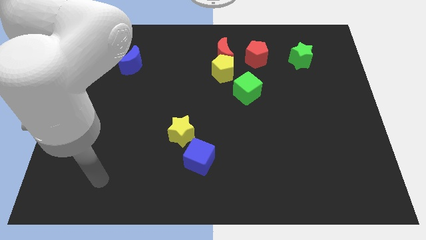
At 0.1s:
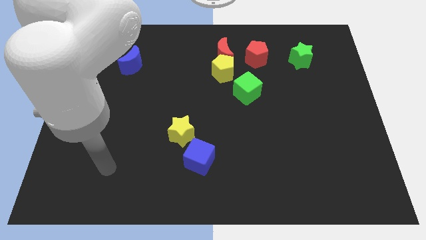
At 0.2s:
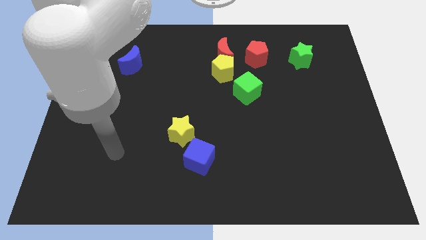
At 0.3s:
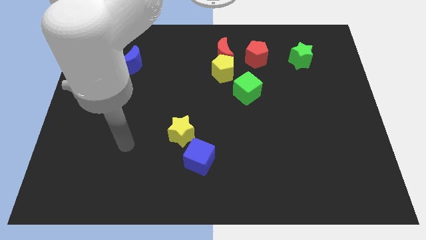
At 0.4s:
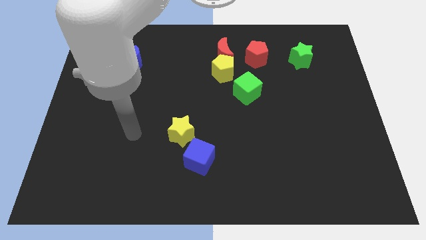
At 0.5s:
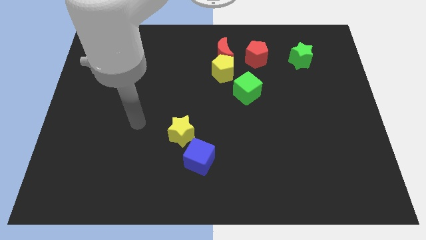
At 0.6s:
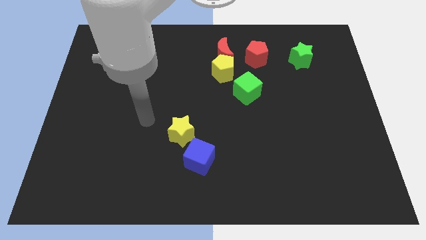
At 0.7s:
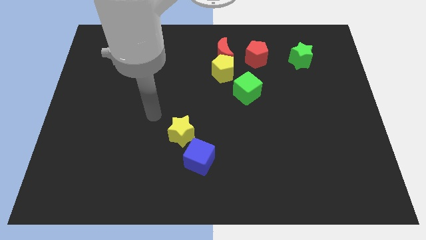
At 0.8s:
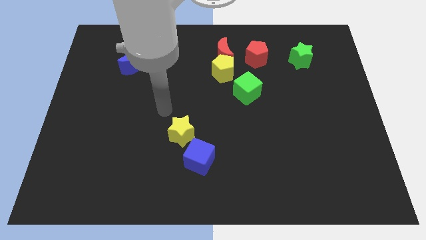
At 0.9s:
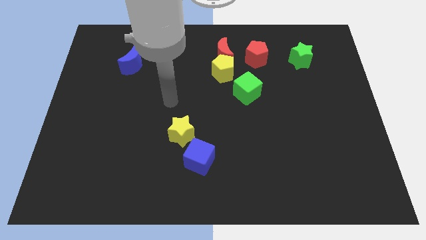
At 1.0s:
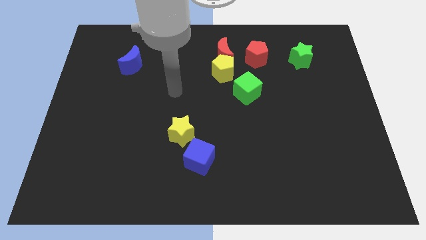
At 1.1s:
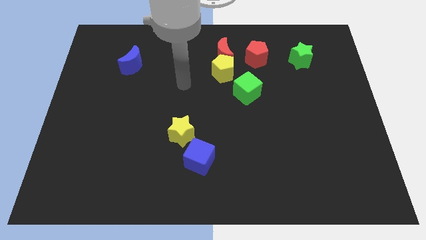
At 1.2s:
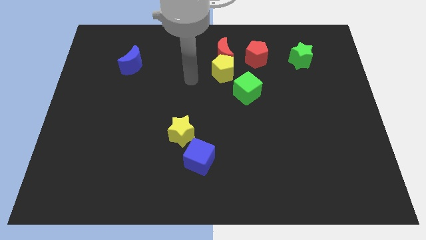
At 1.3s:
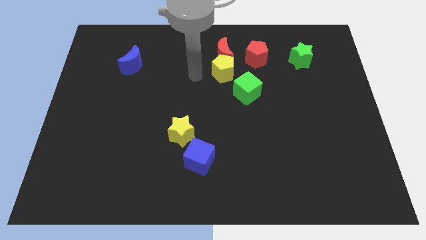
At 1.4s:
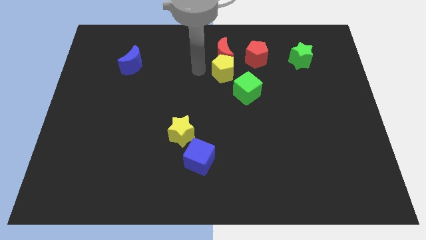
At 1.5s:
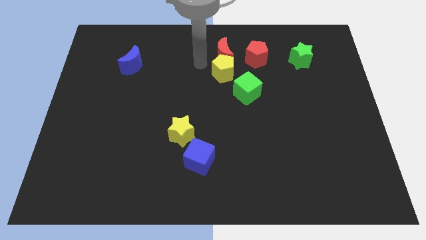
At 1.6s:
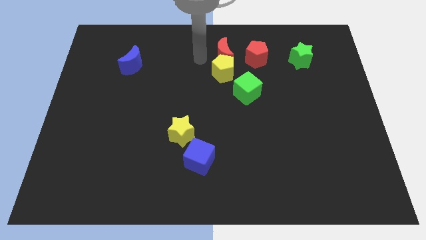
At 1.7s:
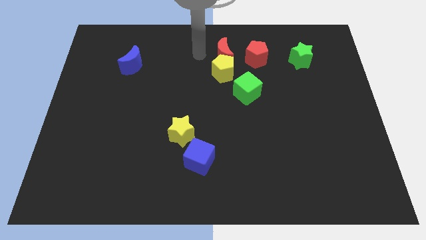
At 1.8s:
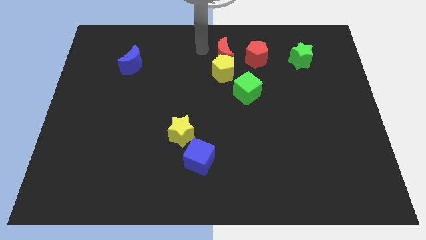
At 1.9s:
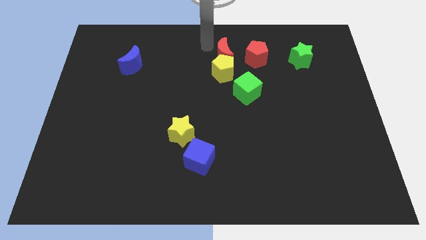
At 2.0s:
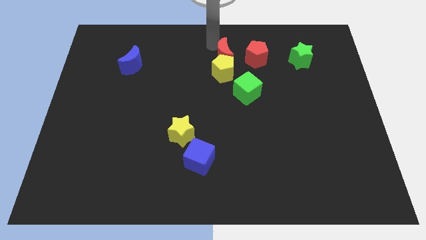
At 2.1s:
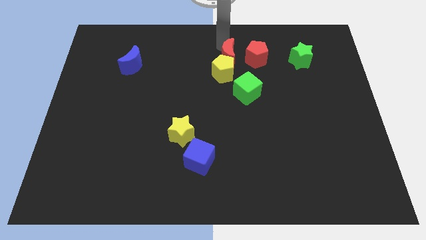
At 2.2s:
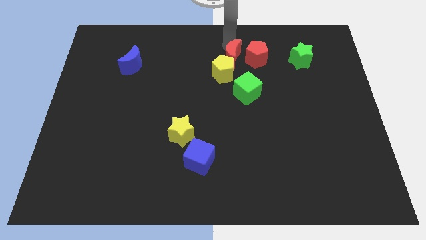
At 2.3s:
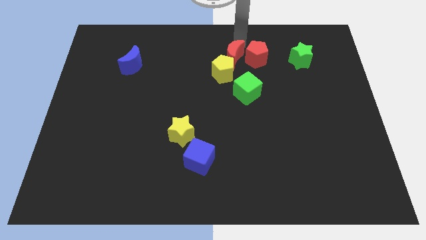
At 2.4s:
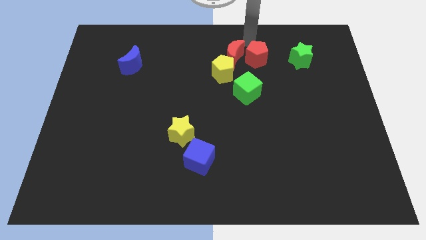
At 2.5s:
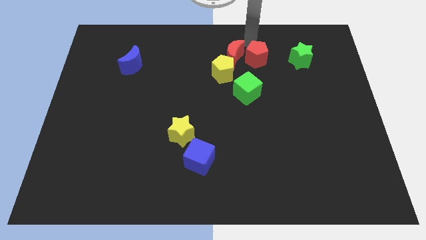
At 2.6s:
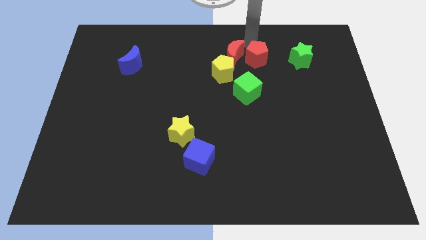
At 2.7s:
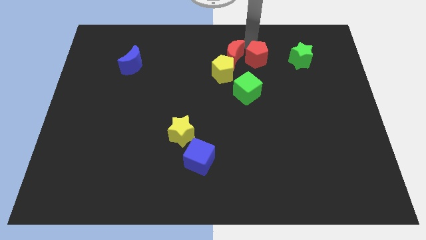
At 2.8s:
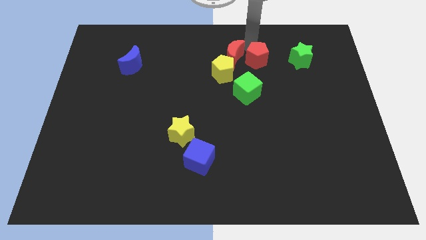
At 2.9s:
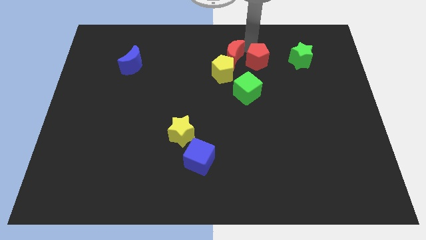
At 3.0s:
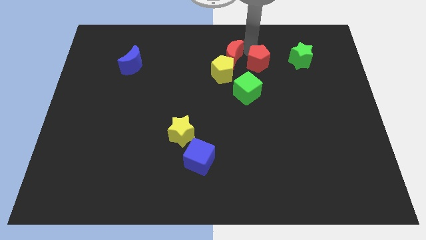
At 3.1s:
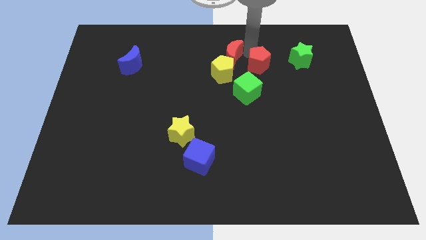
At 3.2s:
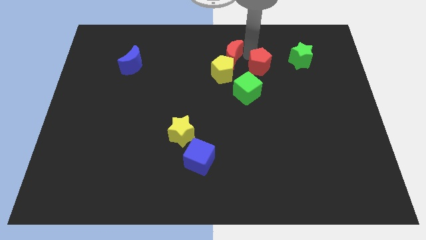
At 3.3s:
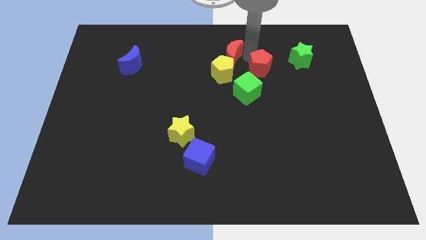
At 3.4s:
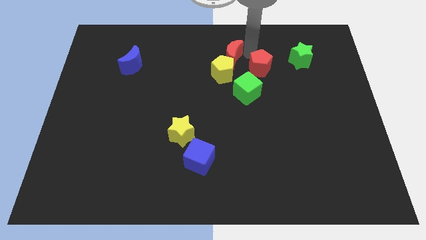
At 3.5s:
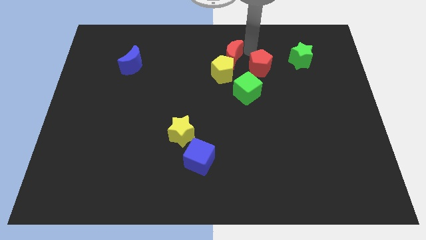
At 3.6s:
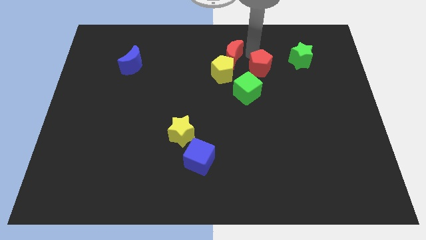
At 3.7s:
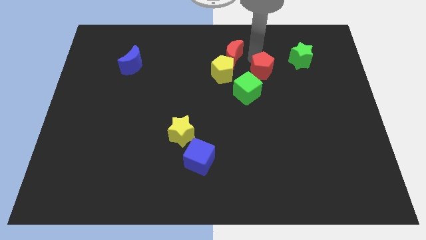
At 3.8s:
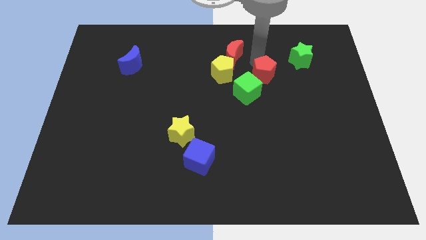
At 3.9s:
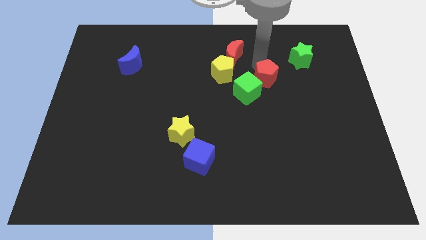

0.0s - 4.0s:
slightly move the red pentagon downwards

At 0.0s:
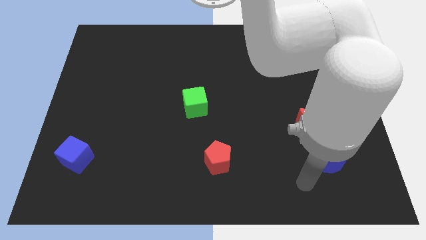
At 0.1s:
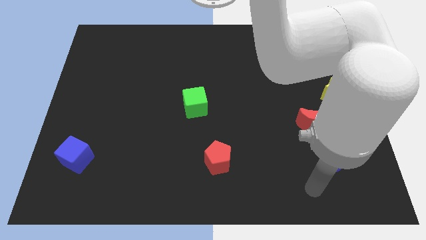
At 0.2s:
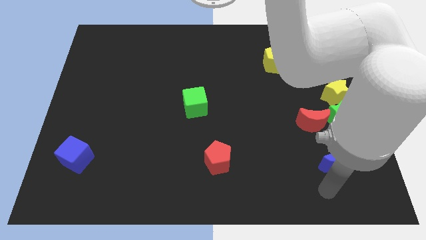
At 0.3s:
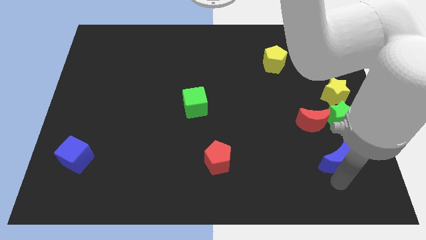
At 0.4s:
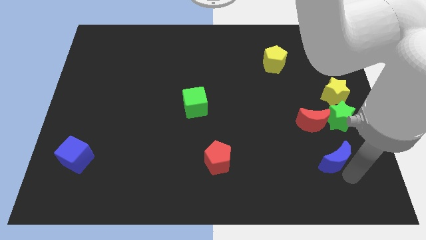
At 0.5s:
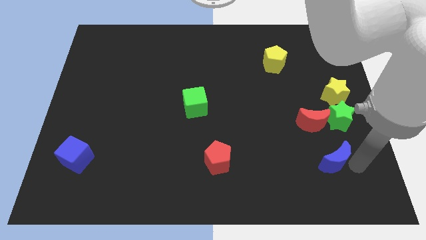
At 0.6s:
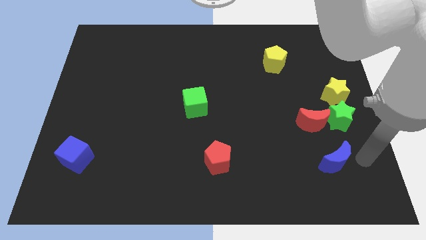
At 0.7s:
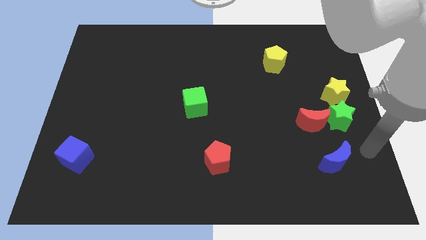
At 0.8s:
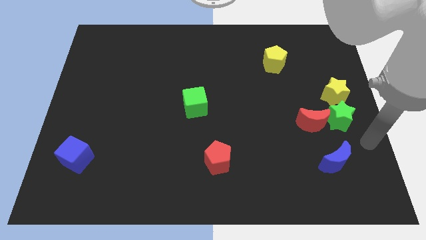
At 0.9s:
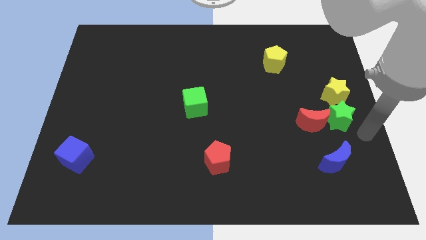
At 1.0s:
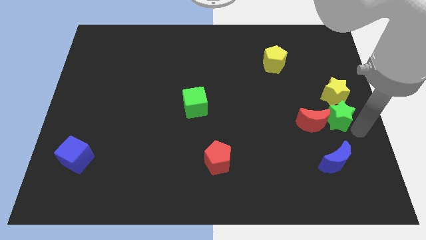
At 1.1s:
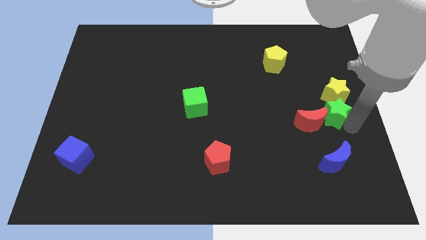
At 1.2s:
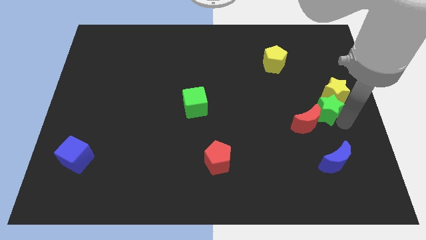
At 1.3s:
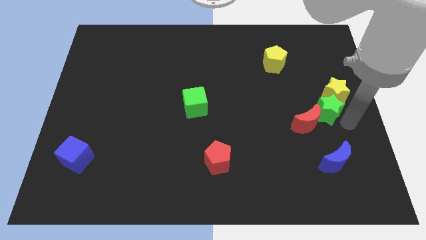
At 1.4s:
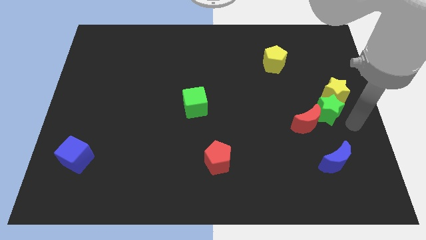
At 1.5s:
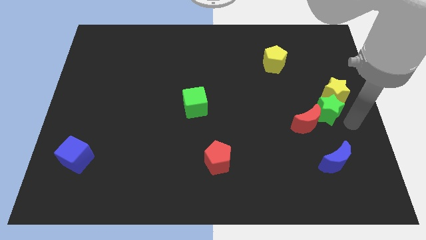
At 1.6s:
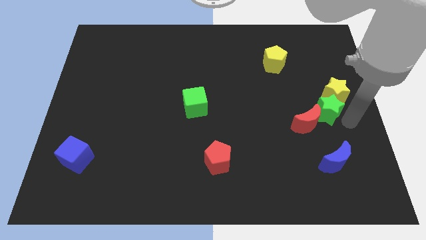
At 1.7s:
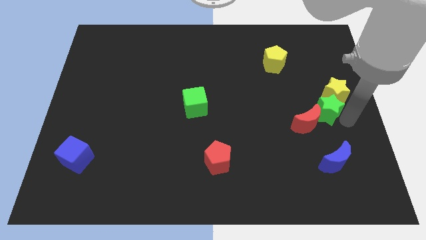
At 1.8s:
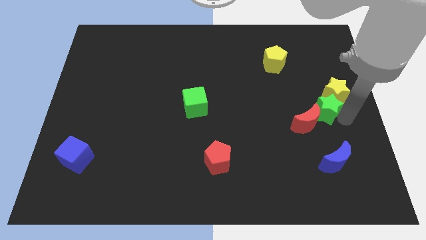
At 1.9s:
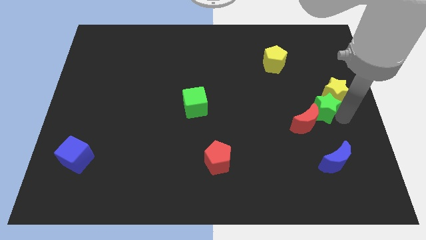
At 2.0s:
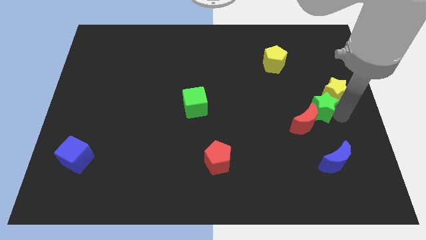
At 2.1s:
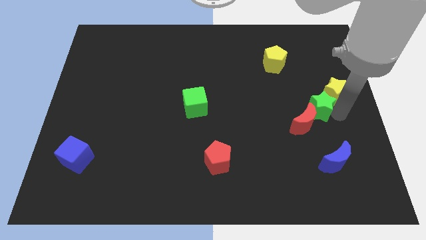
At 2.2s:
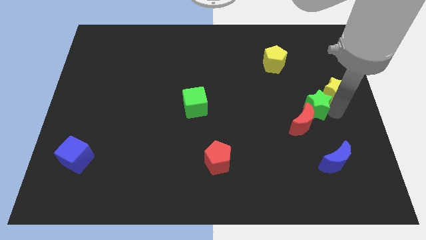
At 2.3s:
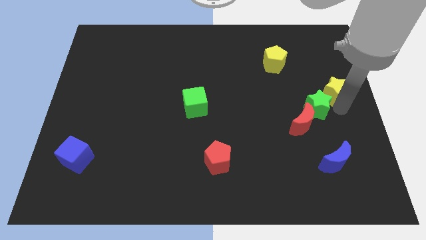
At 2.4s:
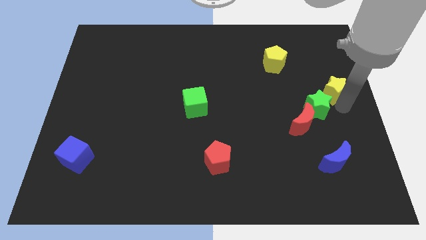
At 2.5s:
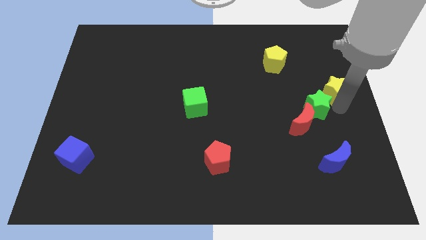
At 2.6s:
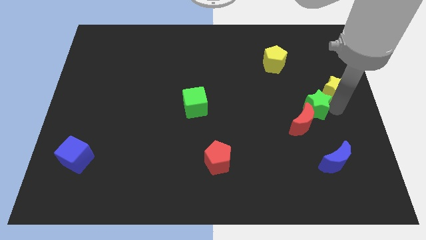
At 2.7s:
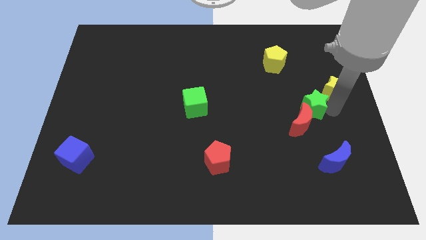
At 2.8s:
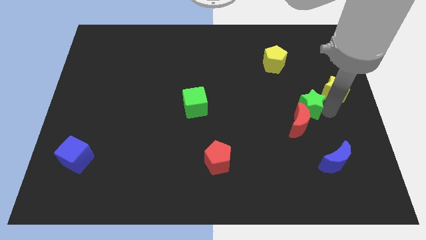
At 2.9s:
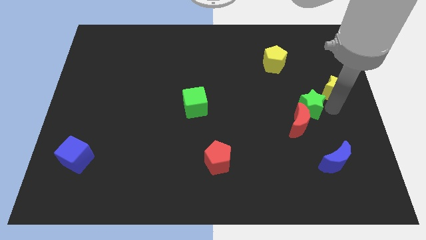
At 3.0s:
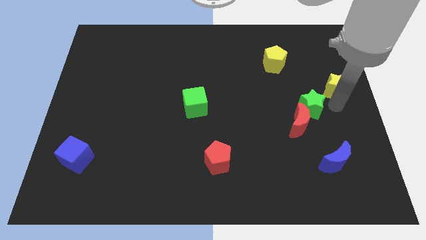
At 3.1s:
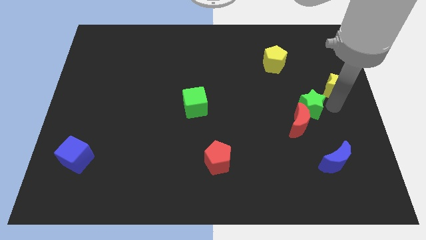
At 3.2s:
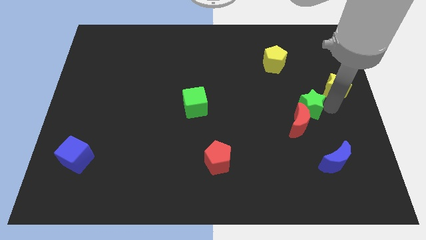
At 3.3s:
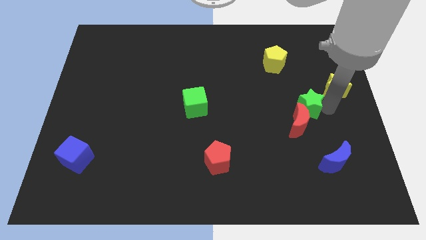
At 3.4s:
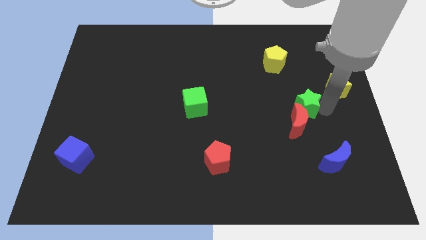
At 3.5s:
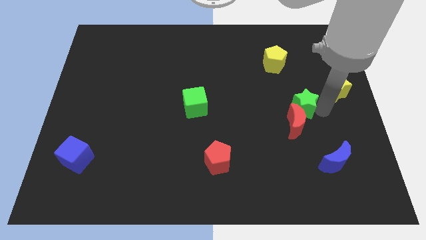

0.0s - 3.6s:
move the green star to the left a little bit

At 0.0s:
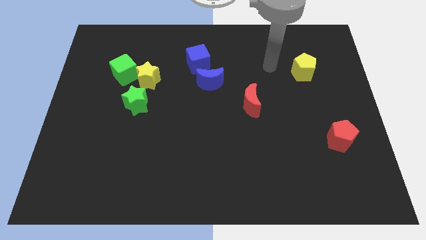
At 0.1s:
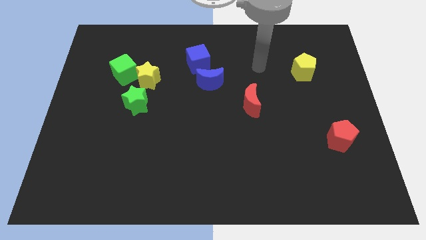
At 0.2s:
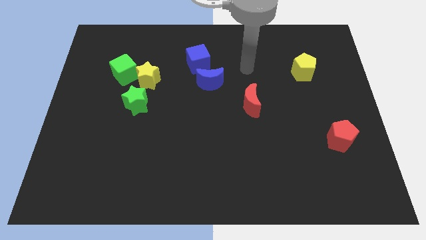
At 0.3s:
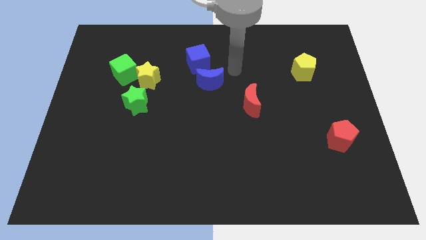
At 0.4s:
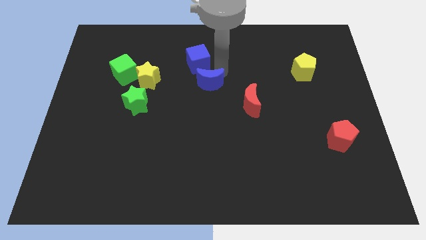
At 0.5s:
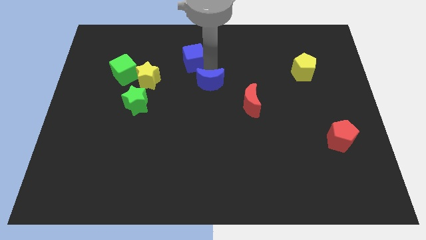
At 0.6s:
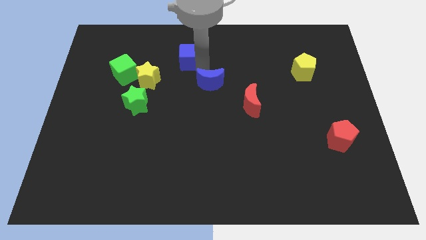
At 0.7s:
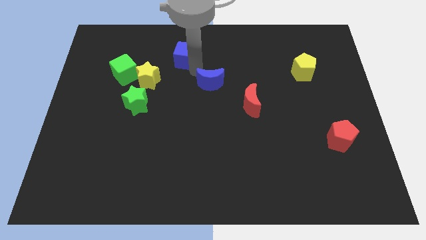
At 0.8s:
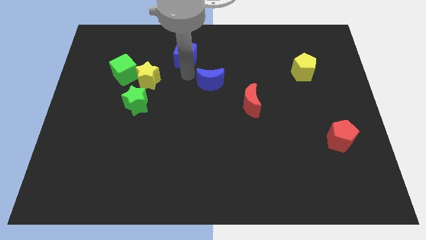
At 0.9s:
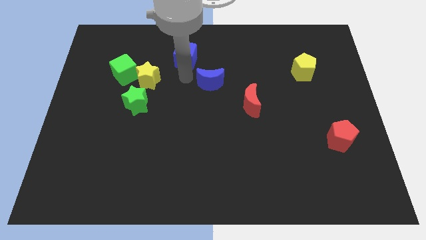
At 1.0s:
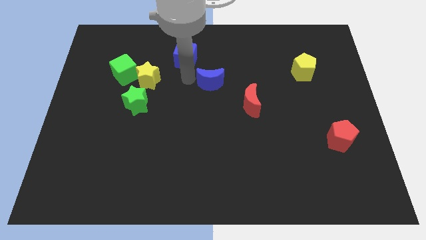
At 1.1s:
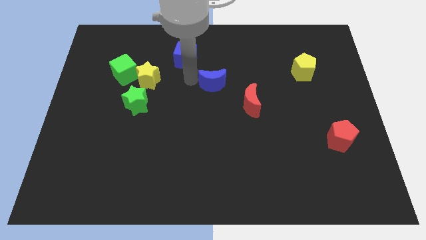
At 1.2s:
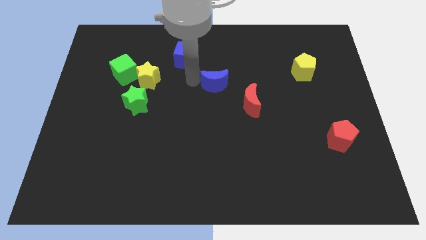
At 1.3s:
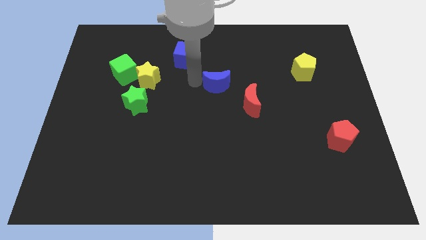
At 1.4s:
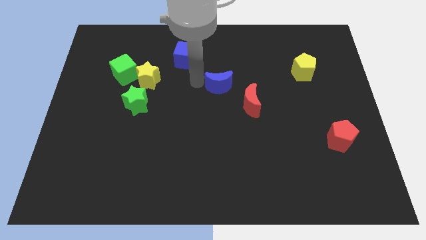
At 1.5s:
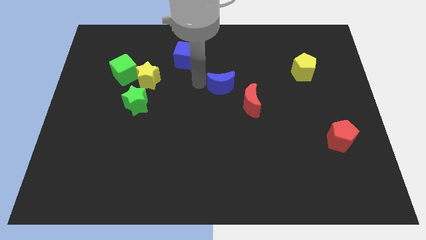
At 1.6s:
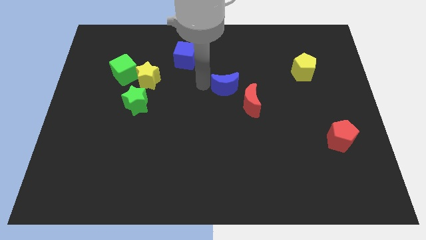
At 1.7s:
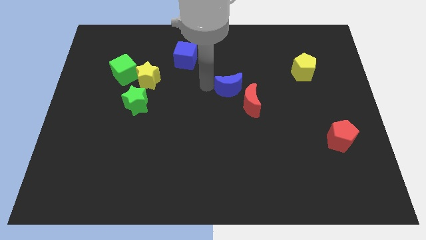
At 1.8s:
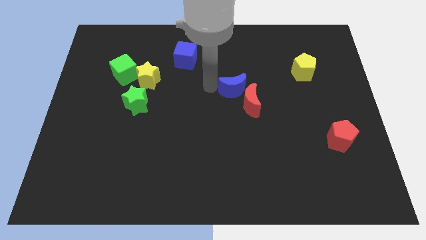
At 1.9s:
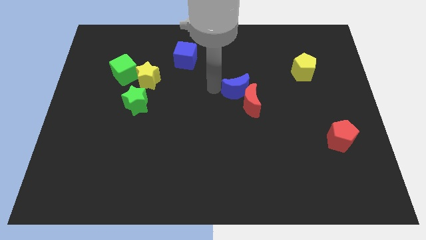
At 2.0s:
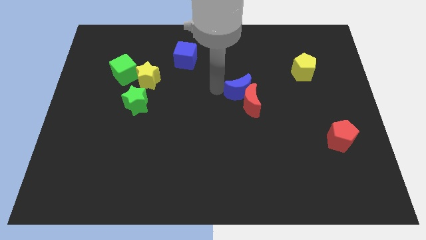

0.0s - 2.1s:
slightly slide the blue moon right
